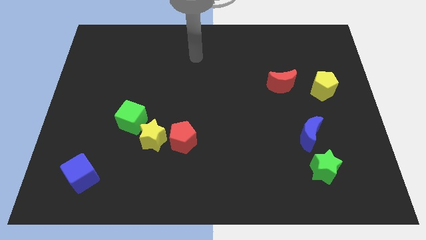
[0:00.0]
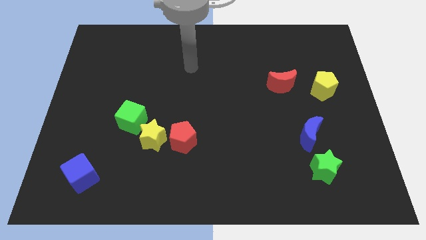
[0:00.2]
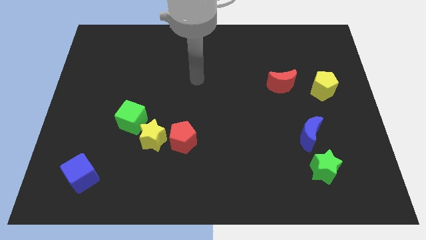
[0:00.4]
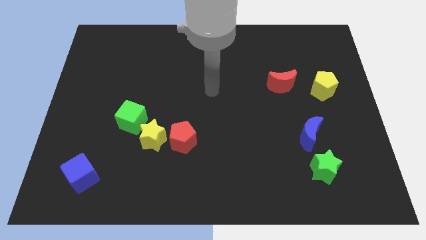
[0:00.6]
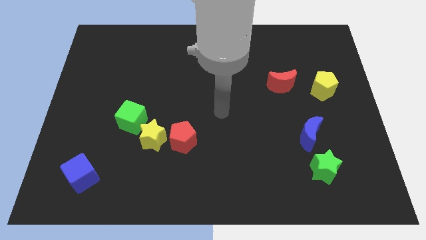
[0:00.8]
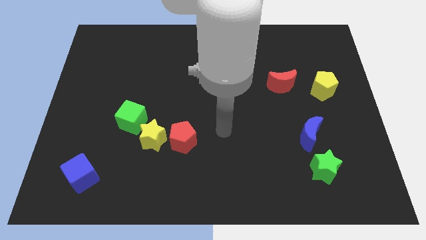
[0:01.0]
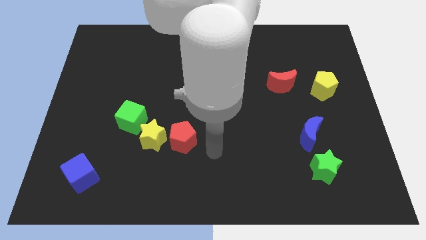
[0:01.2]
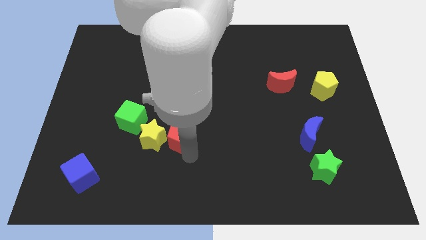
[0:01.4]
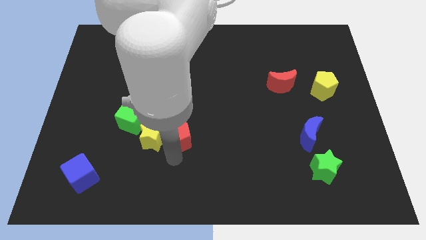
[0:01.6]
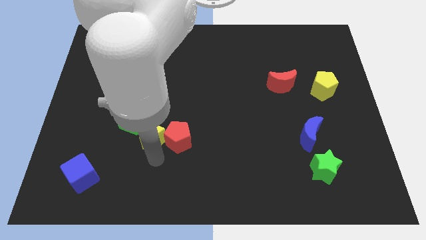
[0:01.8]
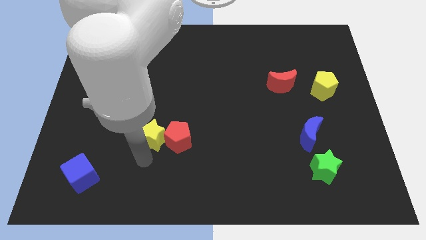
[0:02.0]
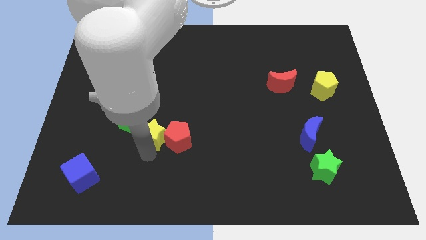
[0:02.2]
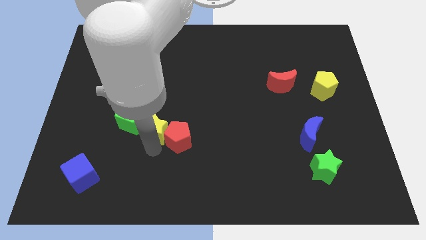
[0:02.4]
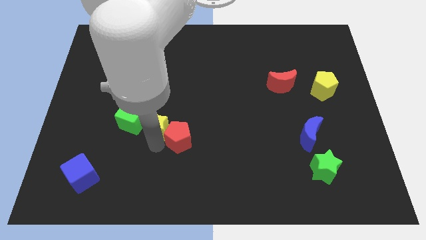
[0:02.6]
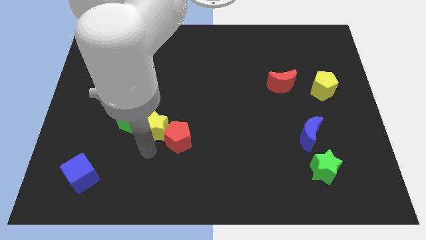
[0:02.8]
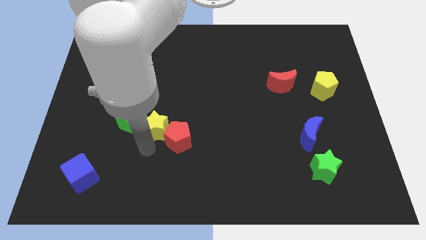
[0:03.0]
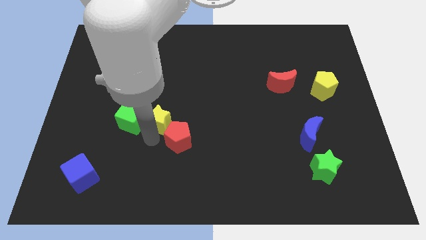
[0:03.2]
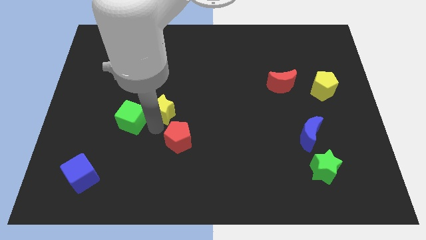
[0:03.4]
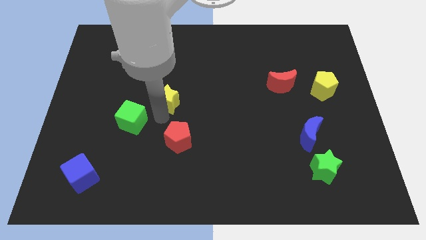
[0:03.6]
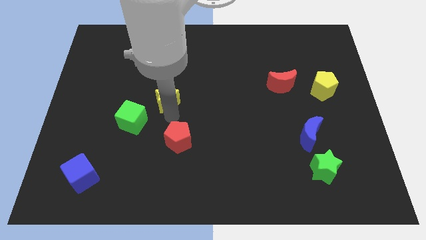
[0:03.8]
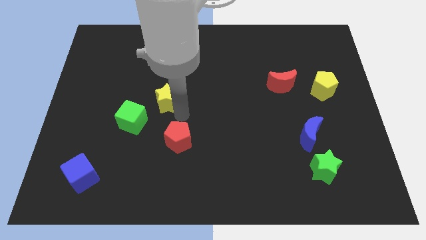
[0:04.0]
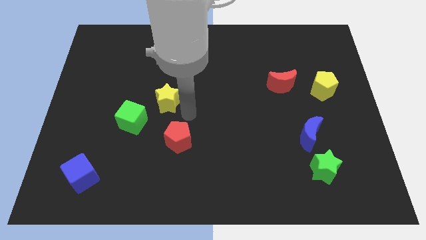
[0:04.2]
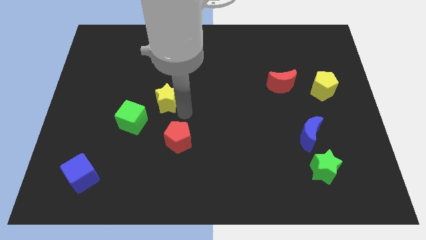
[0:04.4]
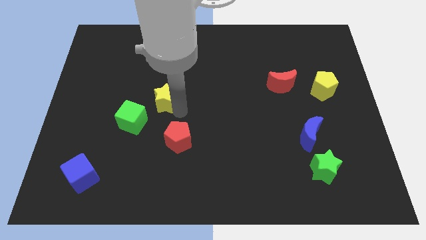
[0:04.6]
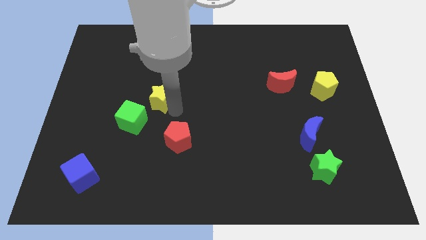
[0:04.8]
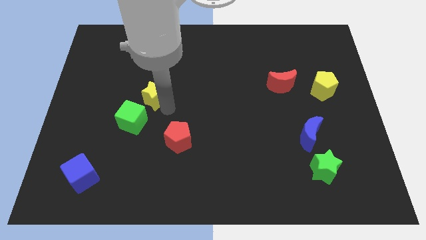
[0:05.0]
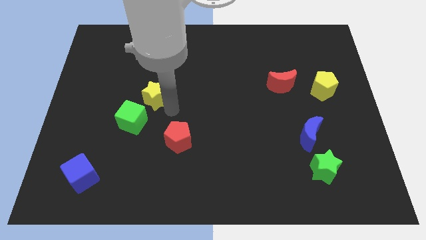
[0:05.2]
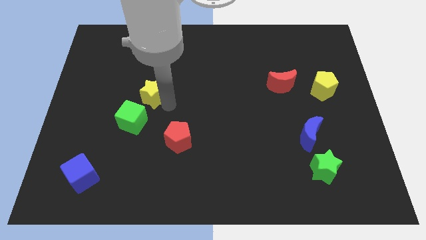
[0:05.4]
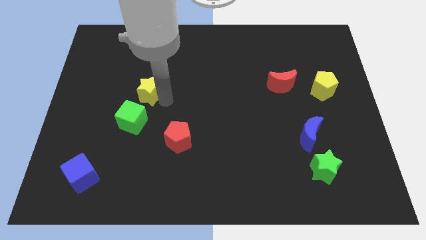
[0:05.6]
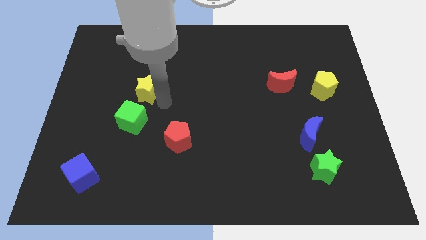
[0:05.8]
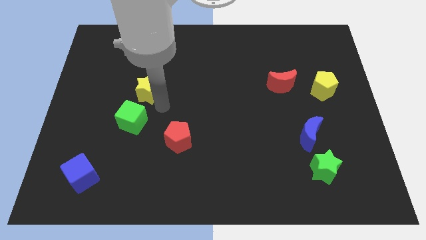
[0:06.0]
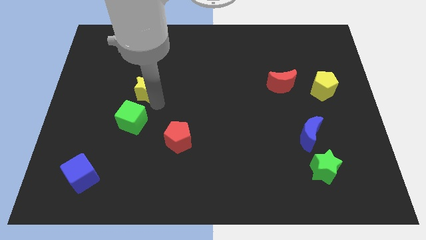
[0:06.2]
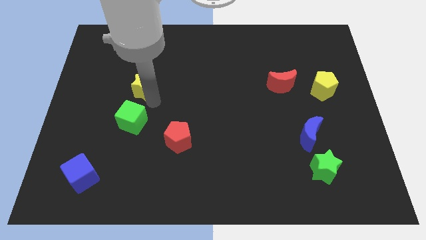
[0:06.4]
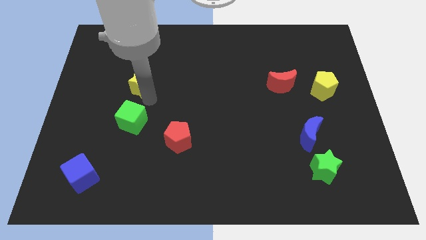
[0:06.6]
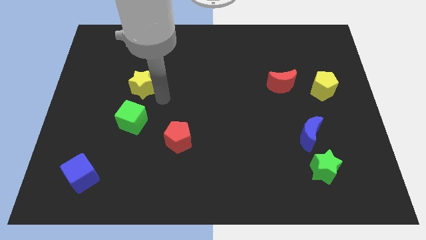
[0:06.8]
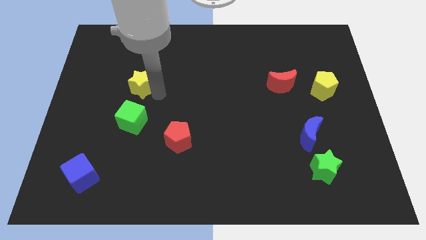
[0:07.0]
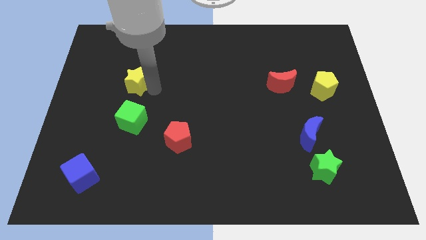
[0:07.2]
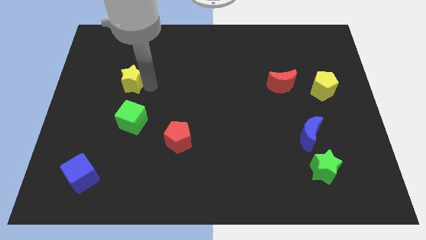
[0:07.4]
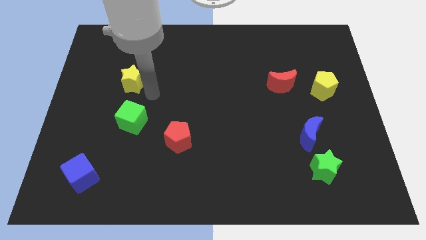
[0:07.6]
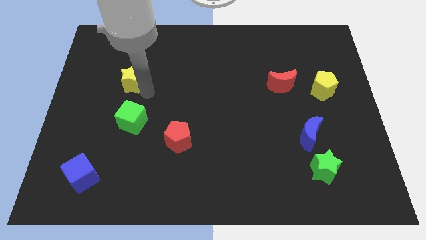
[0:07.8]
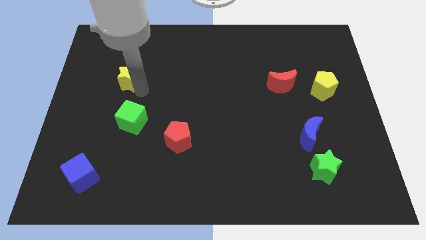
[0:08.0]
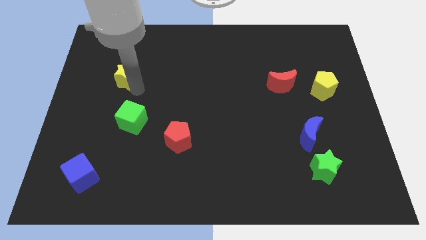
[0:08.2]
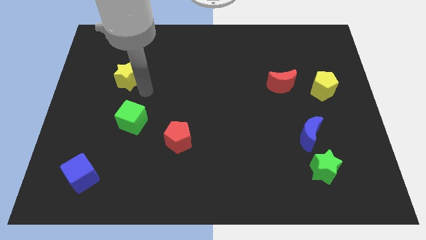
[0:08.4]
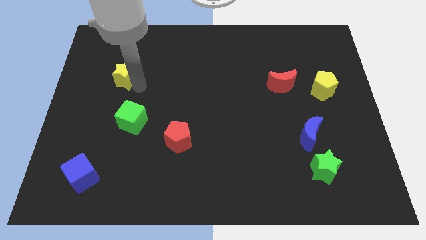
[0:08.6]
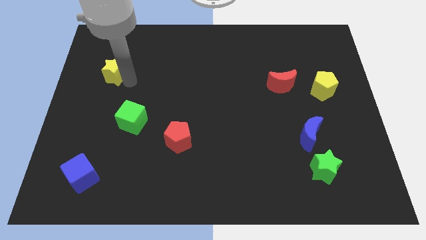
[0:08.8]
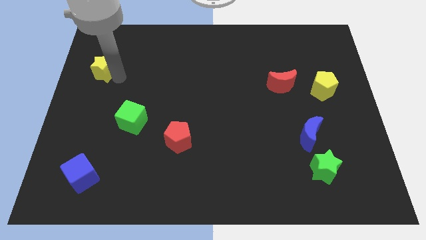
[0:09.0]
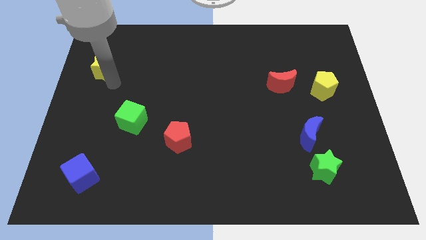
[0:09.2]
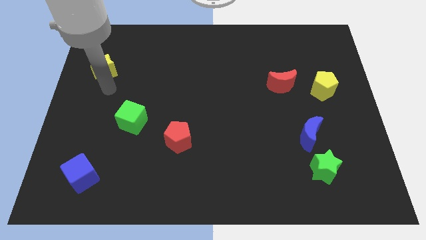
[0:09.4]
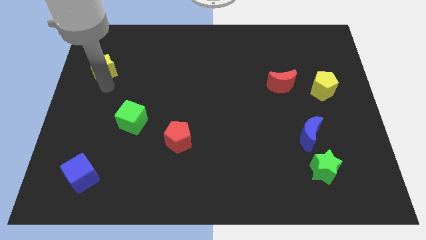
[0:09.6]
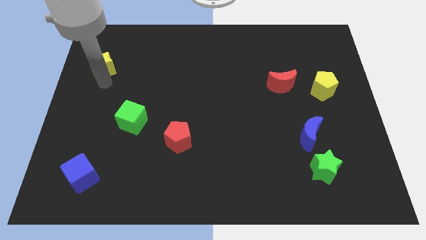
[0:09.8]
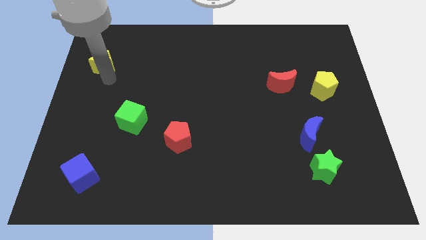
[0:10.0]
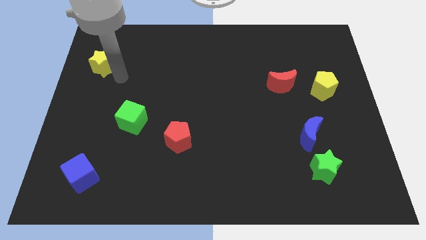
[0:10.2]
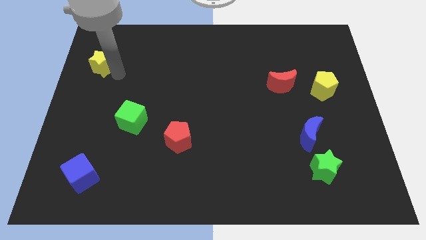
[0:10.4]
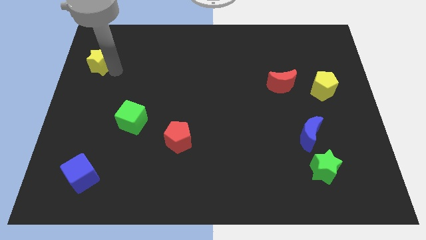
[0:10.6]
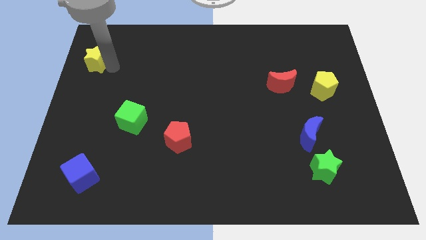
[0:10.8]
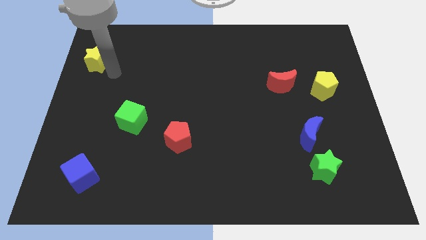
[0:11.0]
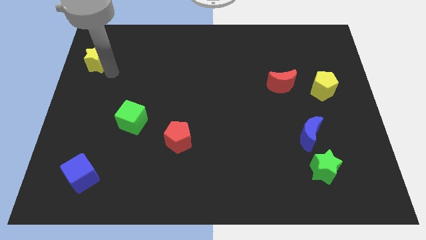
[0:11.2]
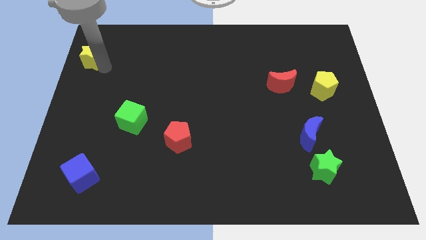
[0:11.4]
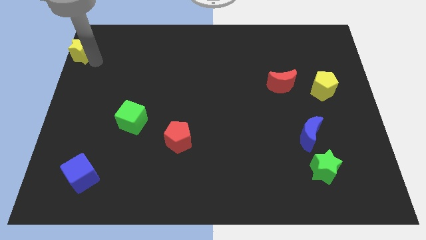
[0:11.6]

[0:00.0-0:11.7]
put the yellow star to the top left corner

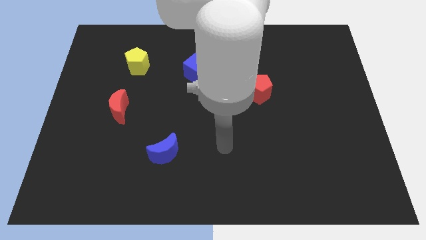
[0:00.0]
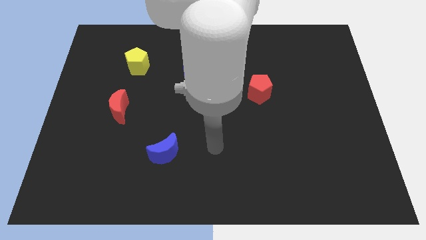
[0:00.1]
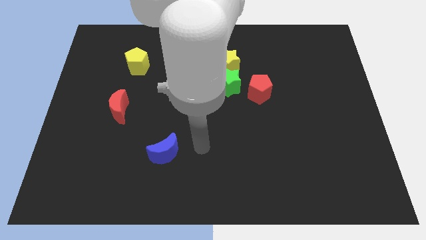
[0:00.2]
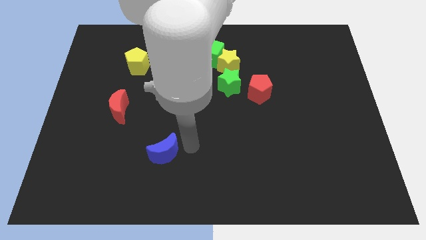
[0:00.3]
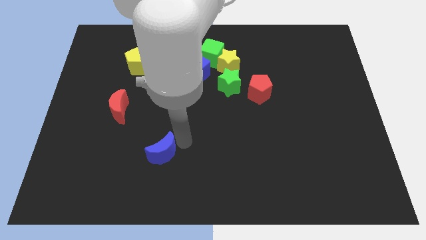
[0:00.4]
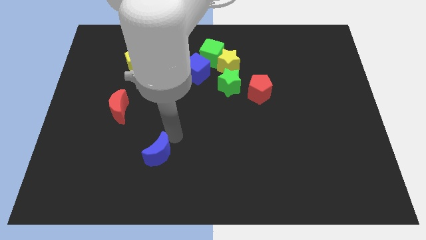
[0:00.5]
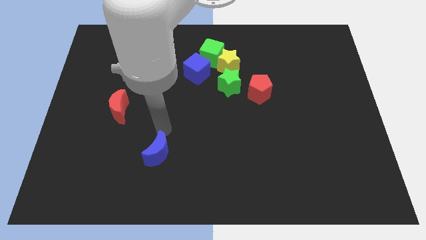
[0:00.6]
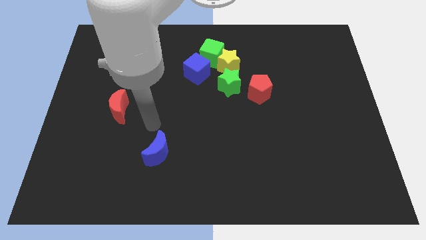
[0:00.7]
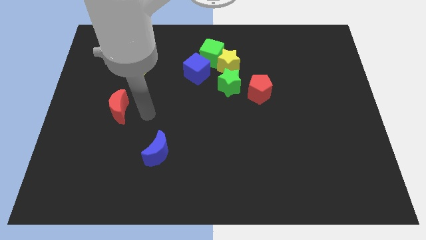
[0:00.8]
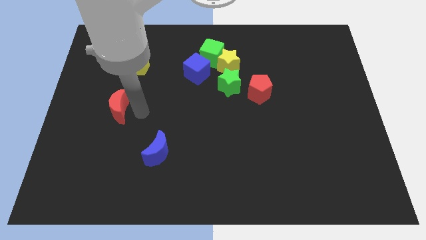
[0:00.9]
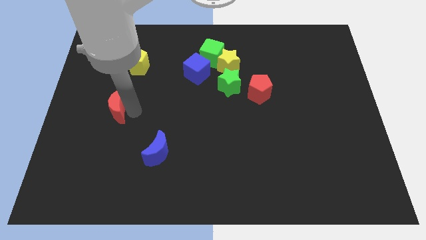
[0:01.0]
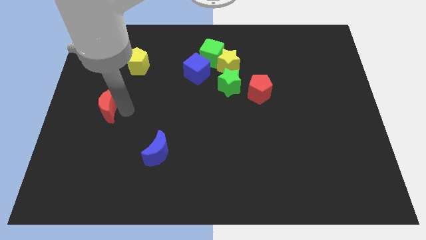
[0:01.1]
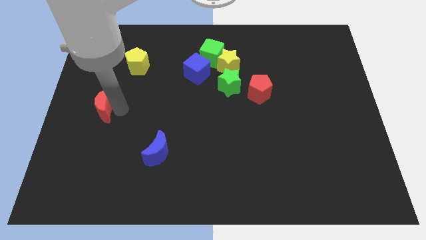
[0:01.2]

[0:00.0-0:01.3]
slide the red moon to the left side of the board
